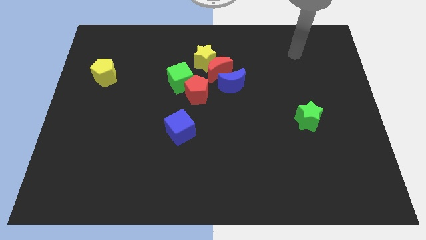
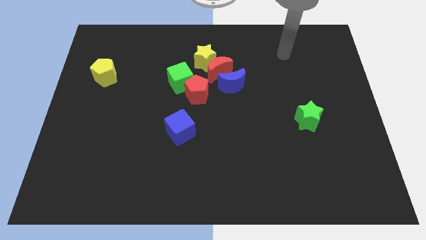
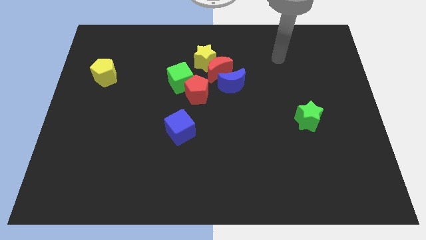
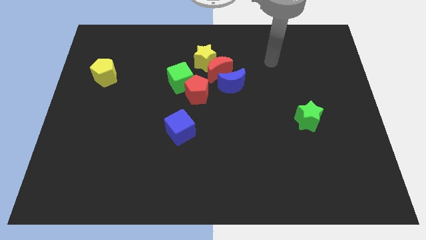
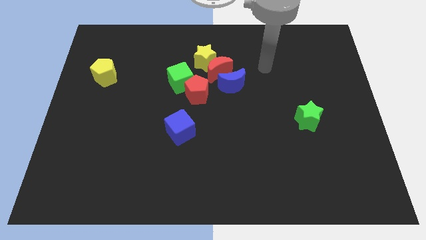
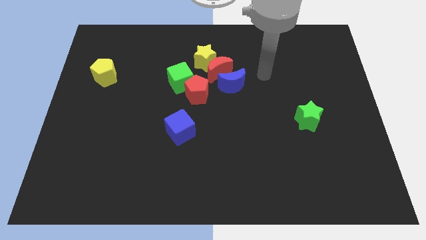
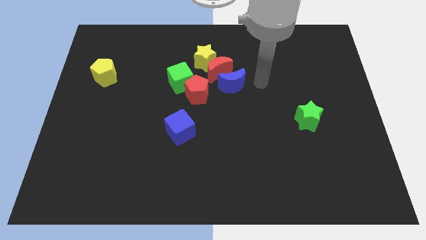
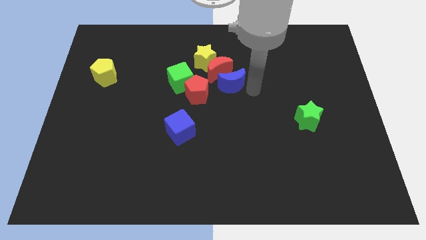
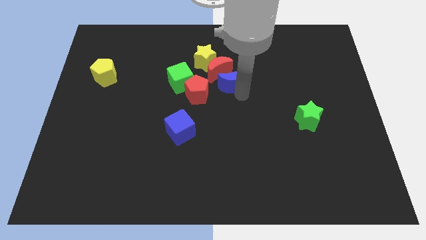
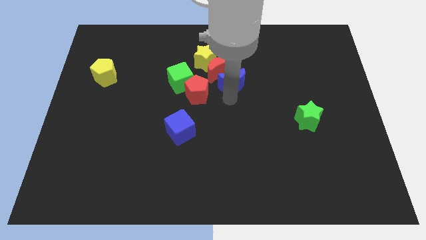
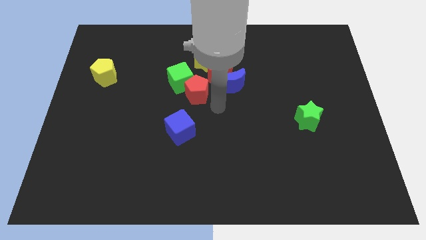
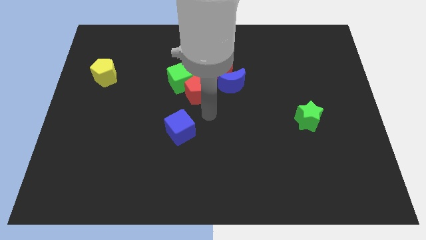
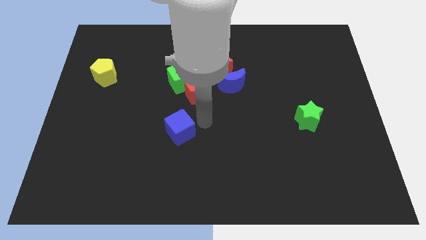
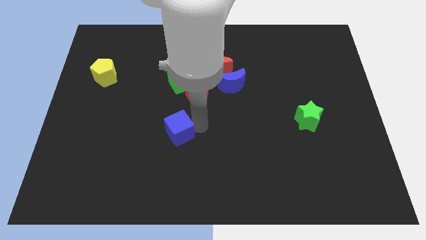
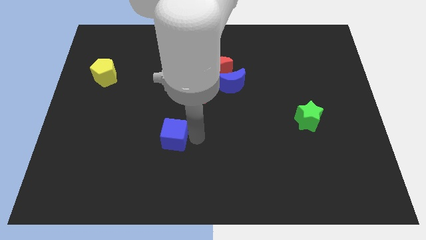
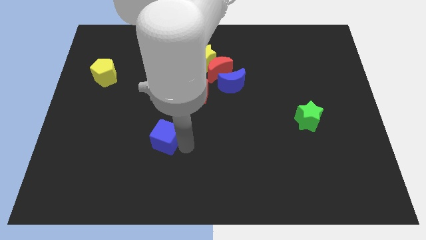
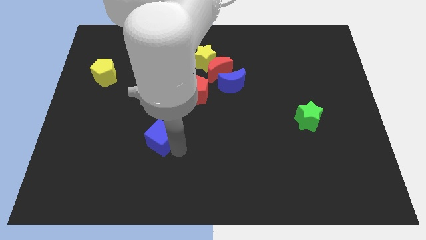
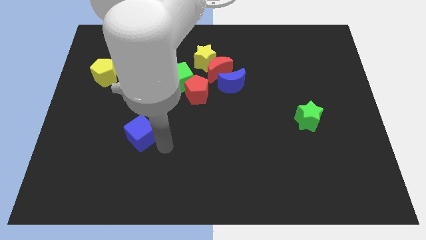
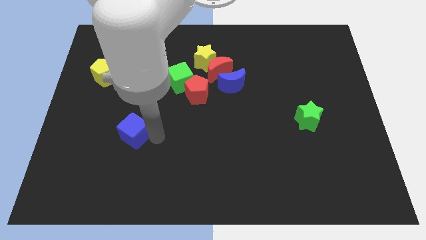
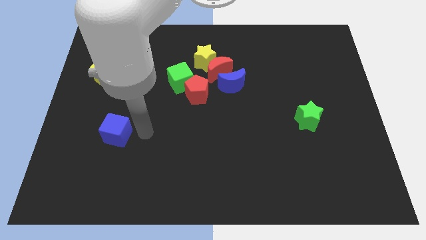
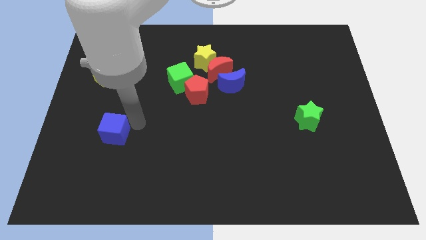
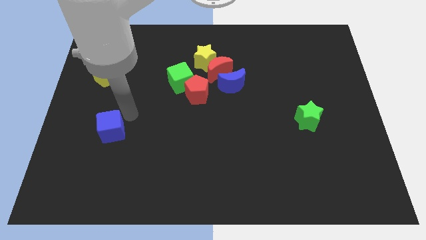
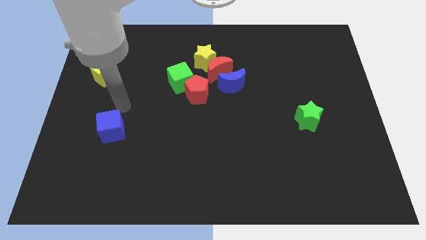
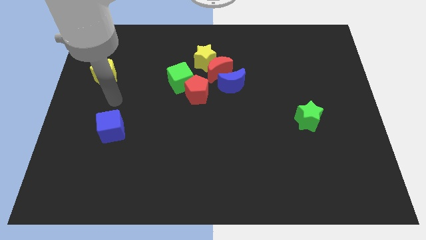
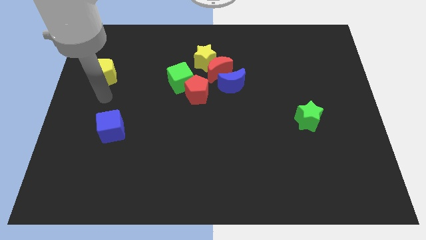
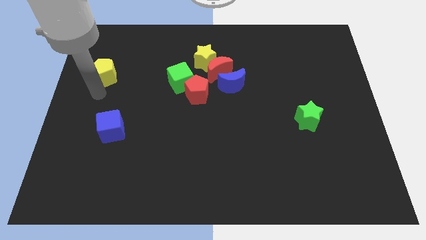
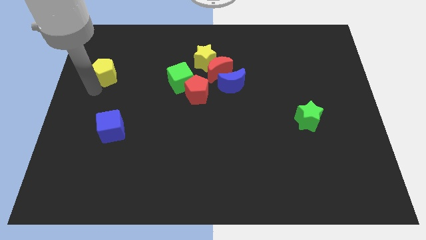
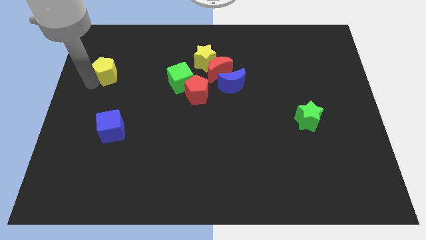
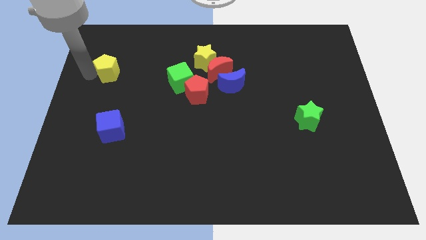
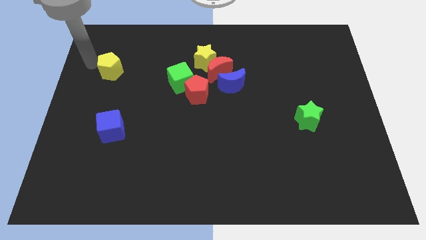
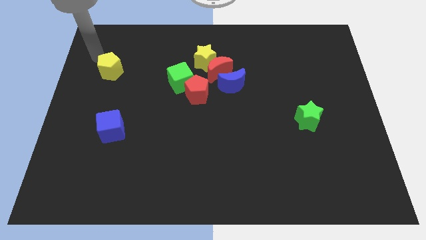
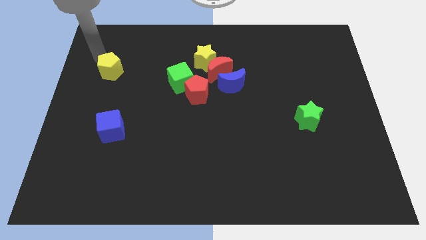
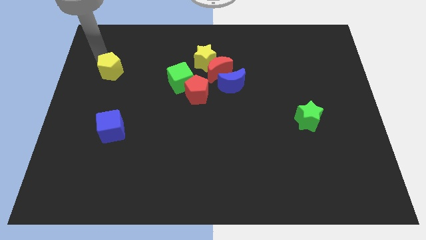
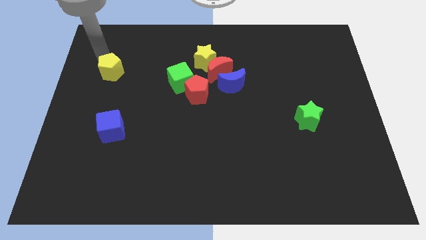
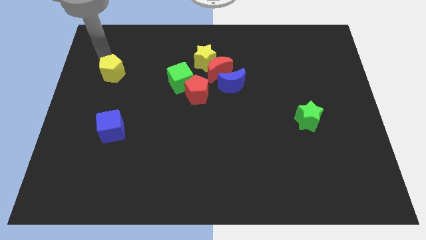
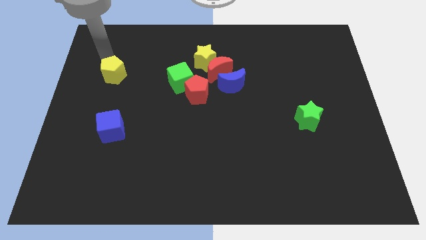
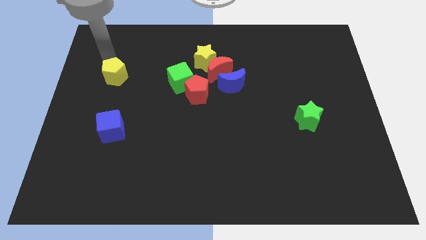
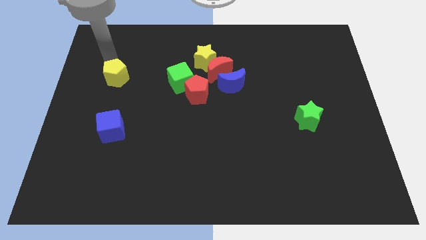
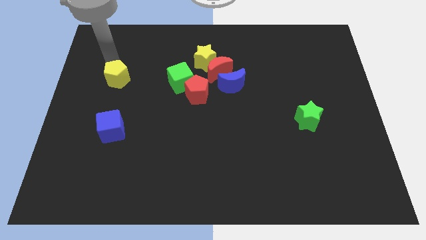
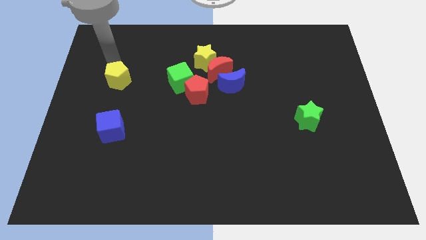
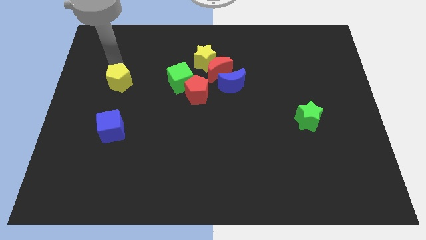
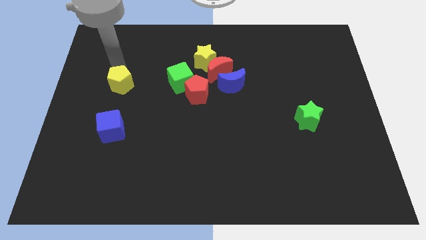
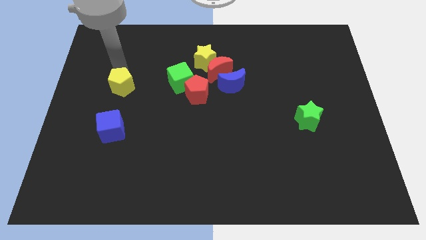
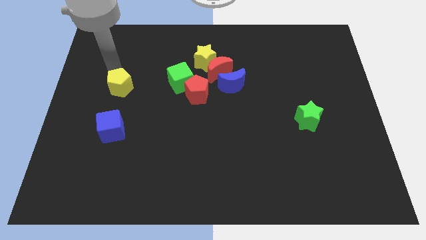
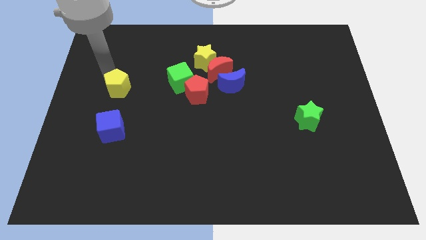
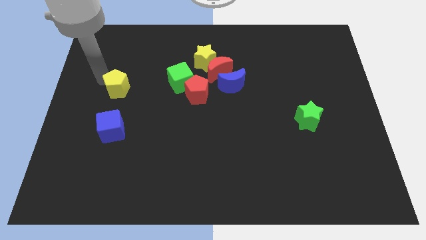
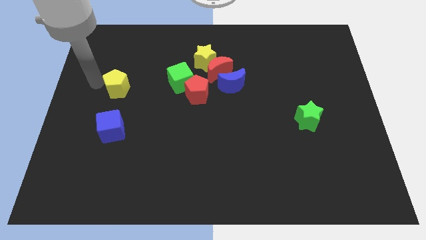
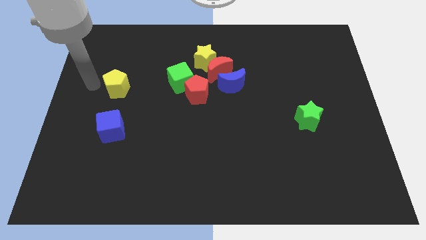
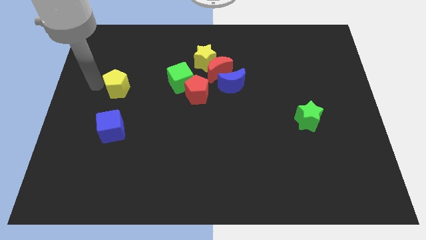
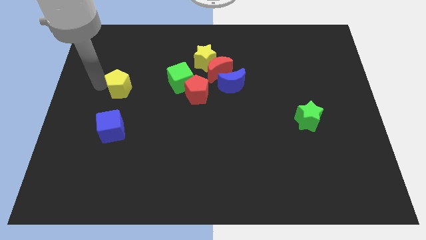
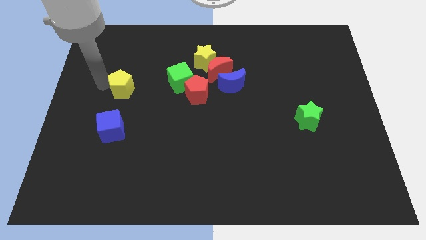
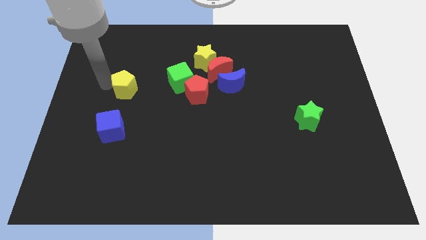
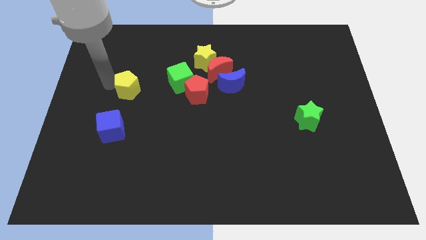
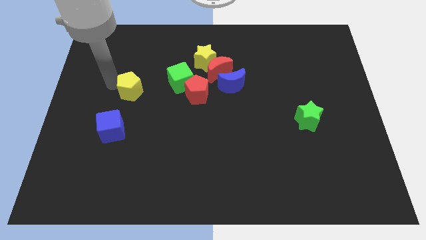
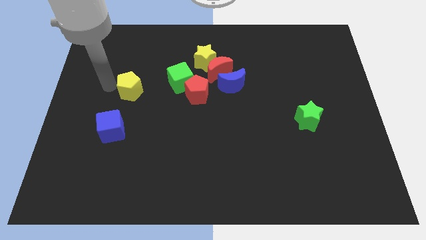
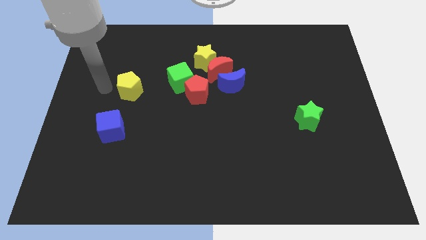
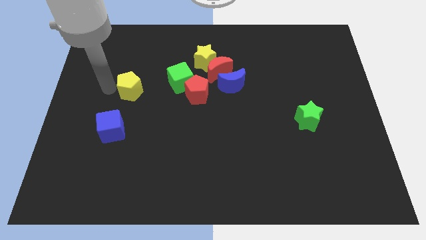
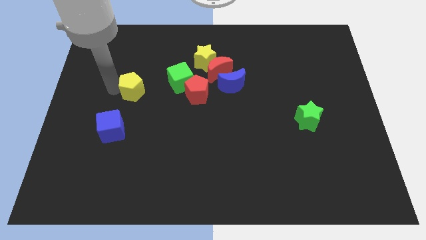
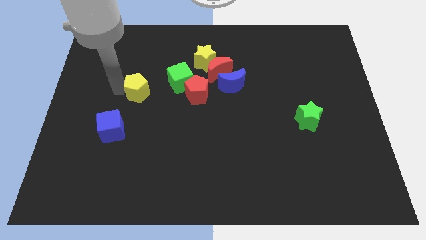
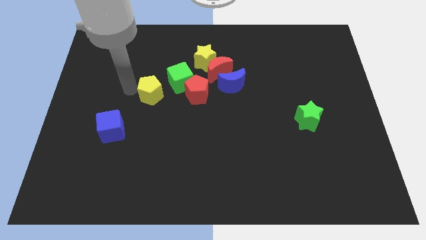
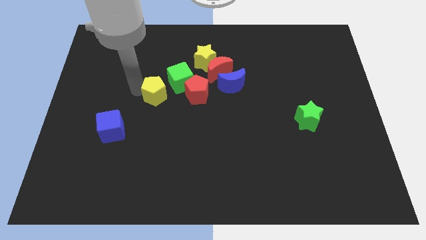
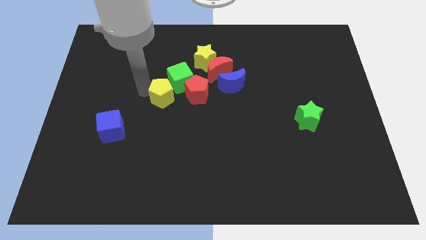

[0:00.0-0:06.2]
move the yellow pentagon to the middle
